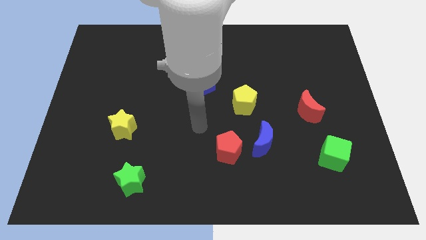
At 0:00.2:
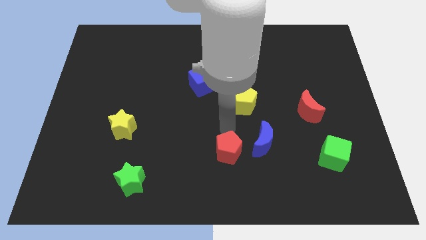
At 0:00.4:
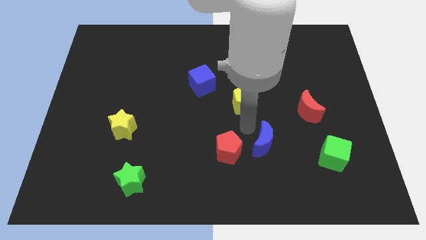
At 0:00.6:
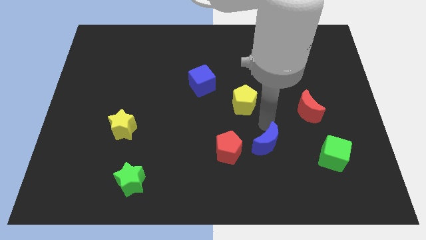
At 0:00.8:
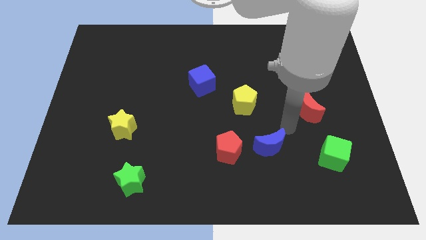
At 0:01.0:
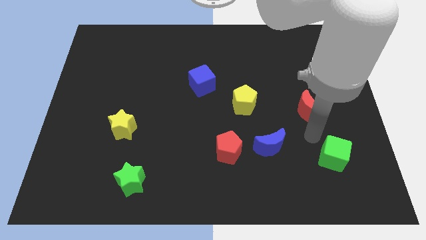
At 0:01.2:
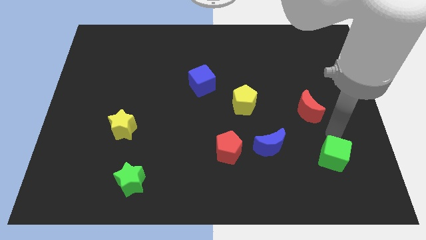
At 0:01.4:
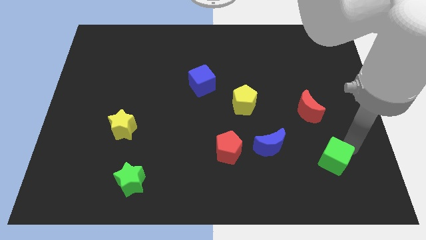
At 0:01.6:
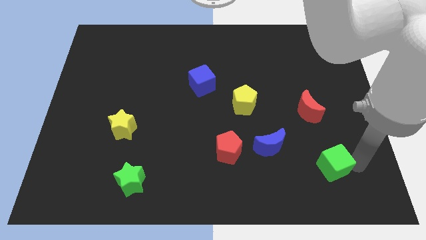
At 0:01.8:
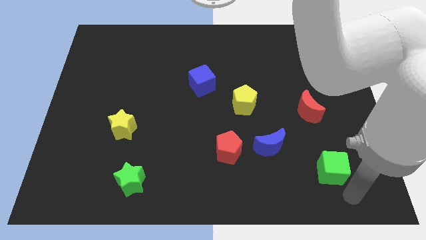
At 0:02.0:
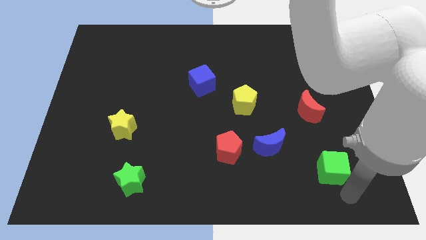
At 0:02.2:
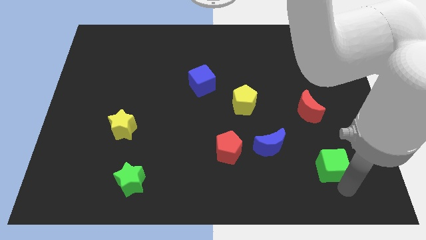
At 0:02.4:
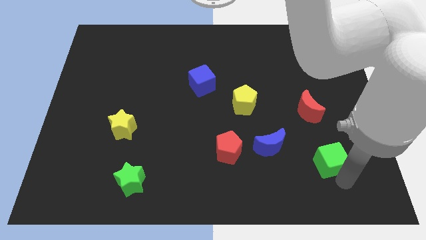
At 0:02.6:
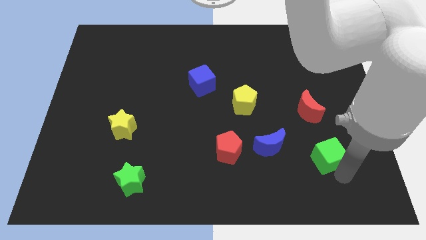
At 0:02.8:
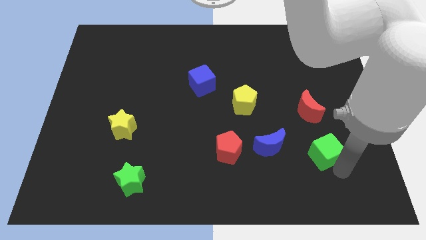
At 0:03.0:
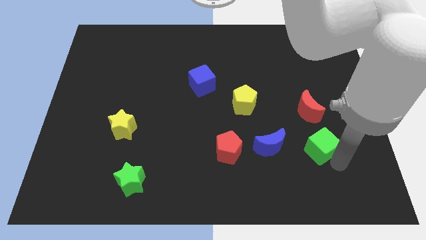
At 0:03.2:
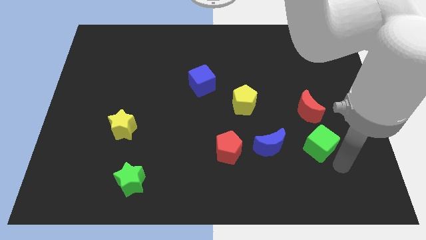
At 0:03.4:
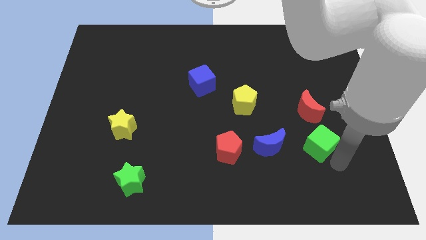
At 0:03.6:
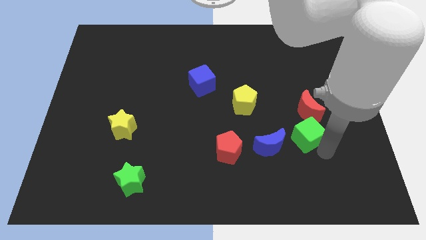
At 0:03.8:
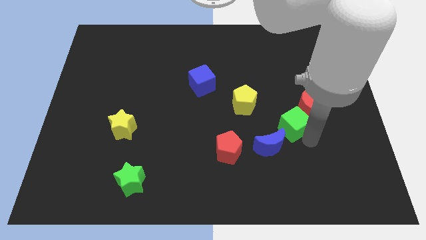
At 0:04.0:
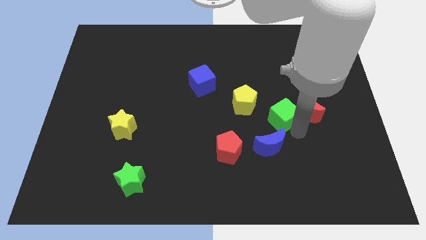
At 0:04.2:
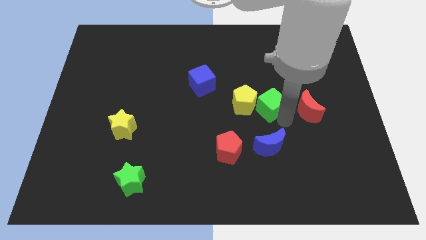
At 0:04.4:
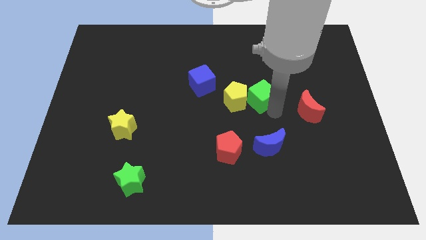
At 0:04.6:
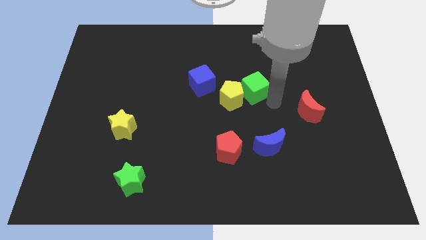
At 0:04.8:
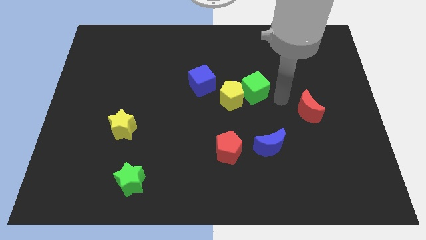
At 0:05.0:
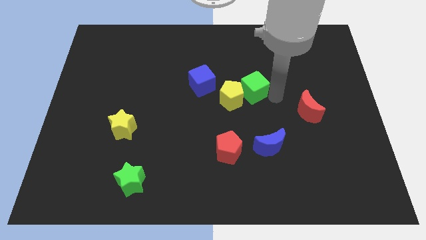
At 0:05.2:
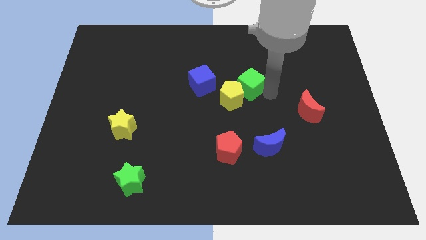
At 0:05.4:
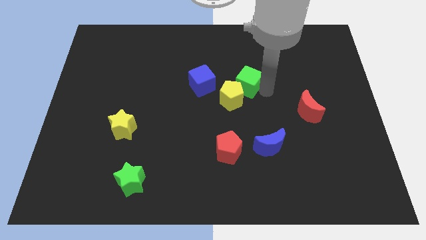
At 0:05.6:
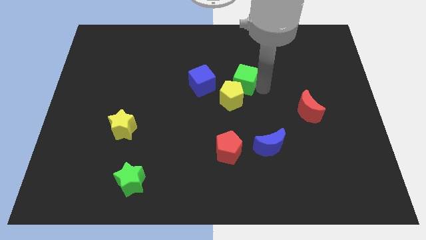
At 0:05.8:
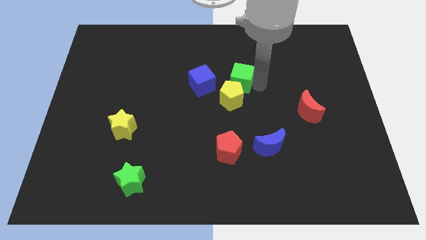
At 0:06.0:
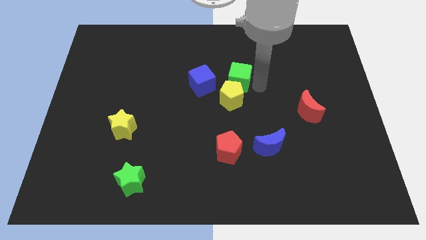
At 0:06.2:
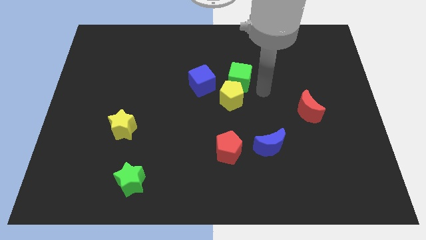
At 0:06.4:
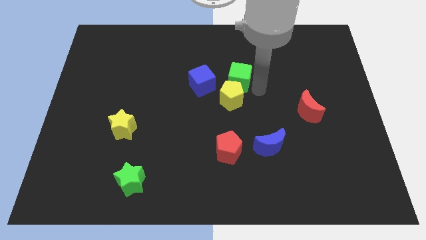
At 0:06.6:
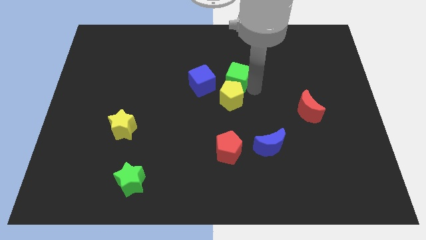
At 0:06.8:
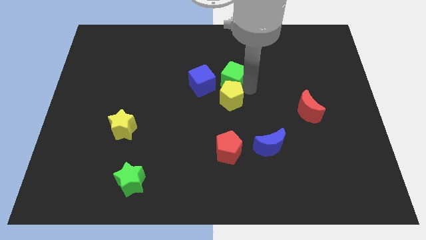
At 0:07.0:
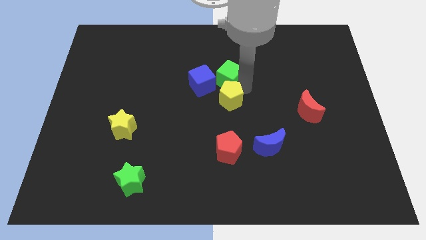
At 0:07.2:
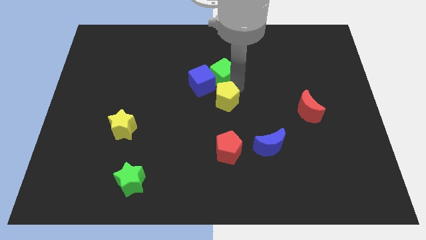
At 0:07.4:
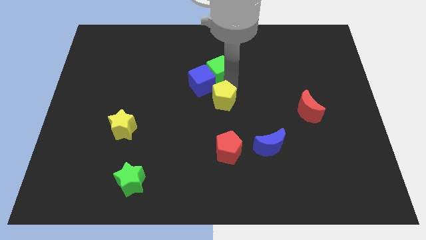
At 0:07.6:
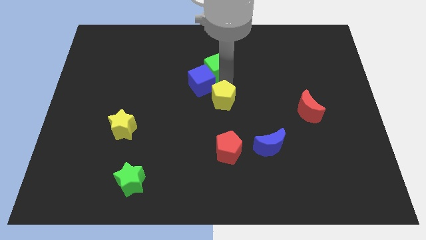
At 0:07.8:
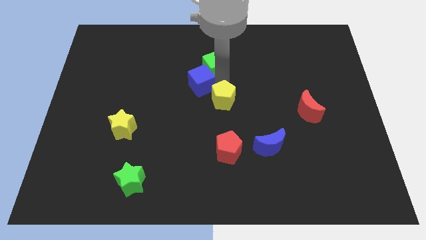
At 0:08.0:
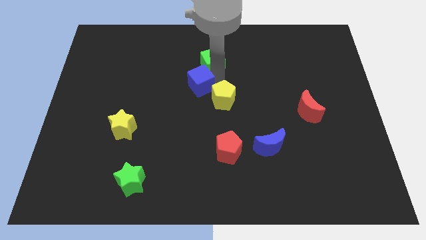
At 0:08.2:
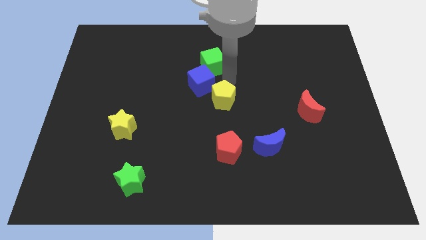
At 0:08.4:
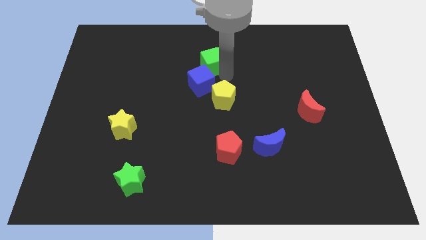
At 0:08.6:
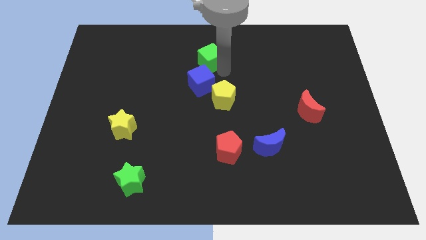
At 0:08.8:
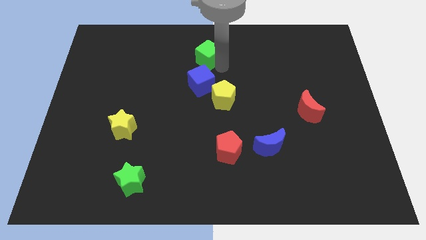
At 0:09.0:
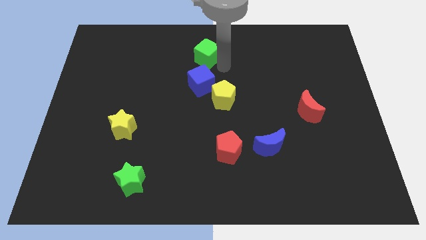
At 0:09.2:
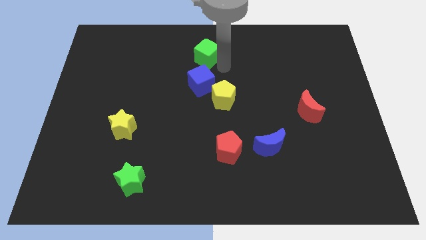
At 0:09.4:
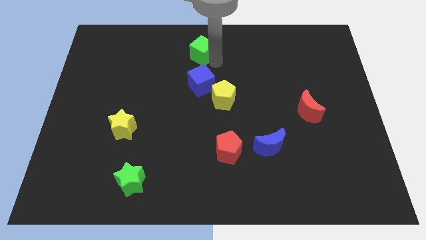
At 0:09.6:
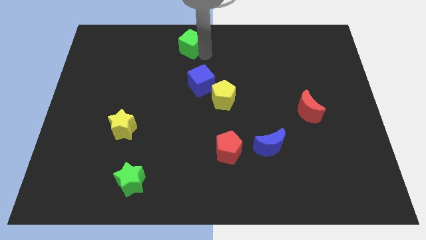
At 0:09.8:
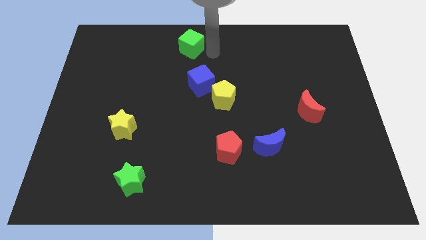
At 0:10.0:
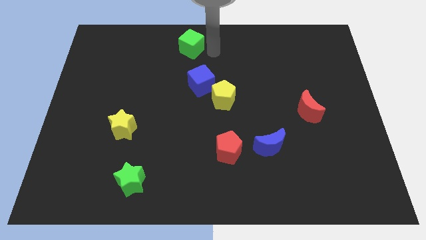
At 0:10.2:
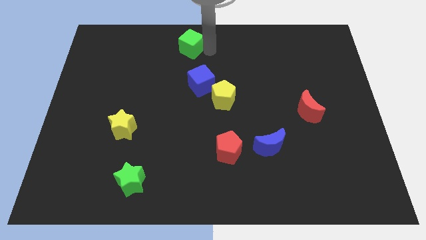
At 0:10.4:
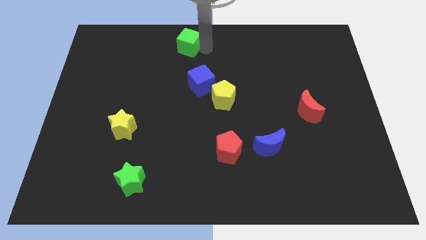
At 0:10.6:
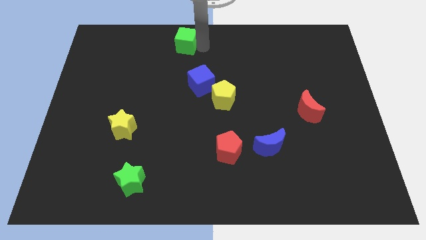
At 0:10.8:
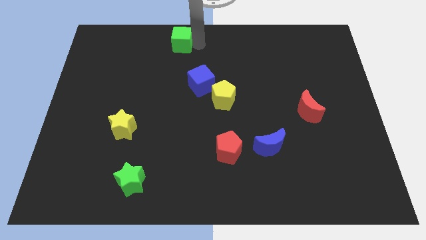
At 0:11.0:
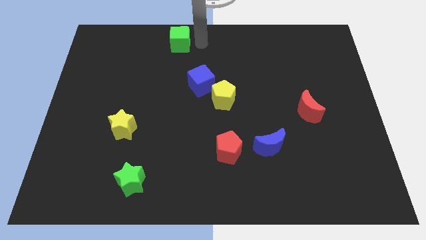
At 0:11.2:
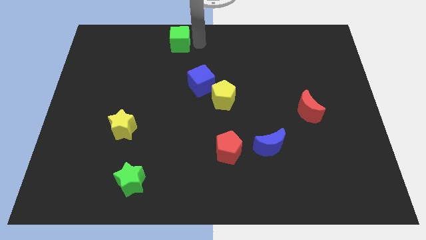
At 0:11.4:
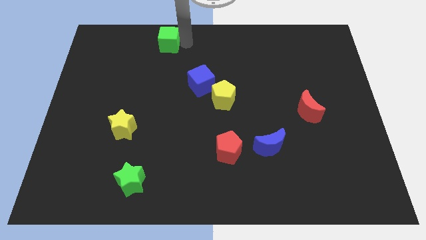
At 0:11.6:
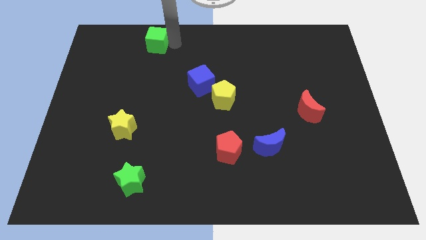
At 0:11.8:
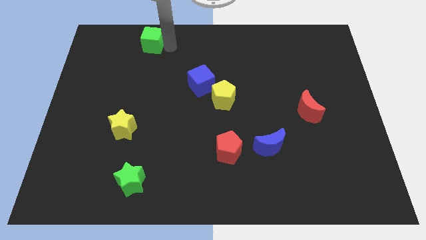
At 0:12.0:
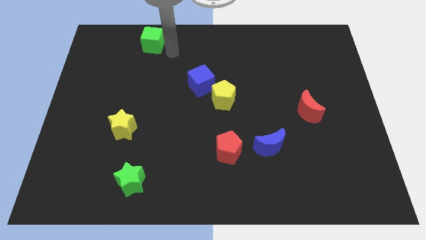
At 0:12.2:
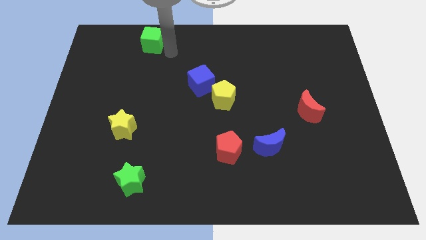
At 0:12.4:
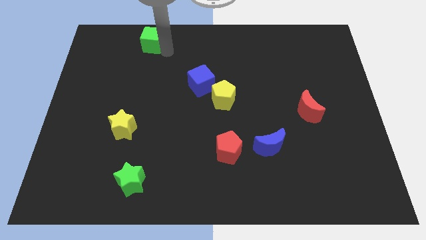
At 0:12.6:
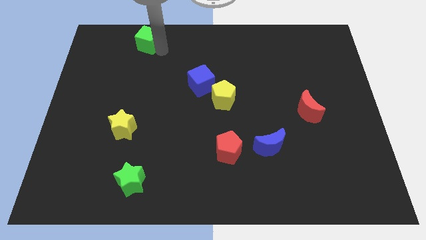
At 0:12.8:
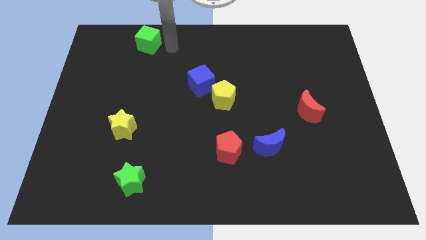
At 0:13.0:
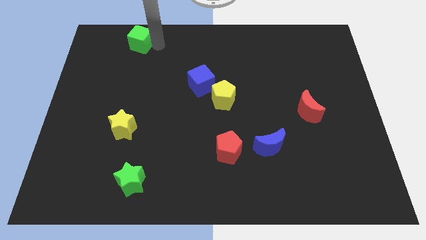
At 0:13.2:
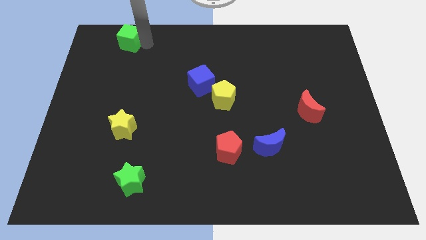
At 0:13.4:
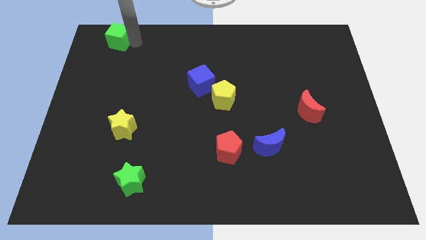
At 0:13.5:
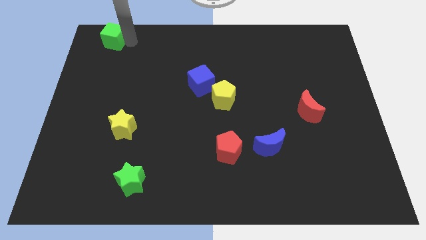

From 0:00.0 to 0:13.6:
put the green cube to the upper left corner
